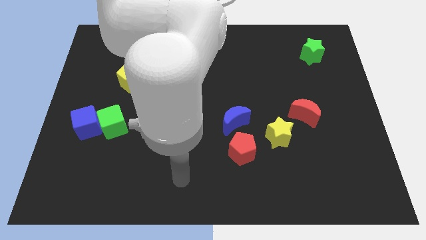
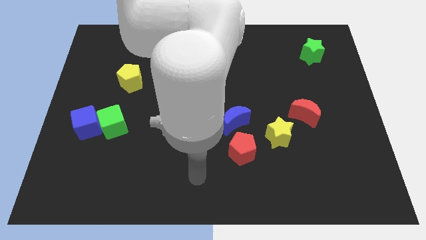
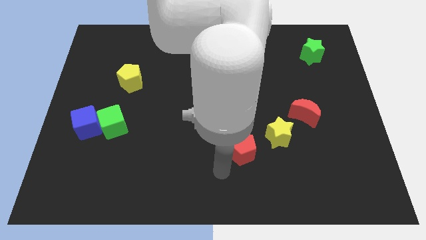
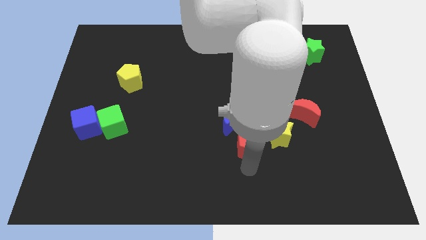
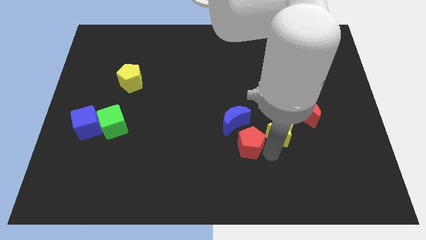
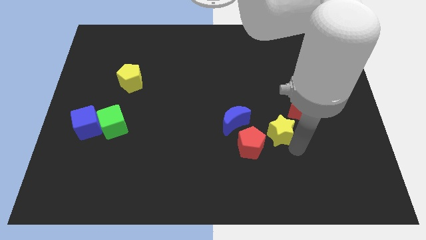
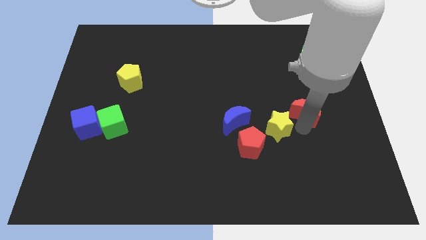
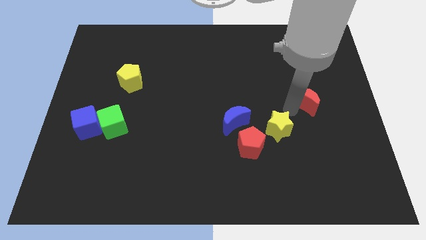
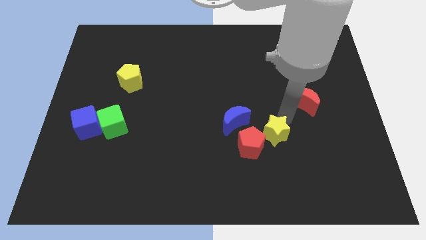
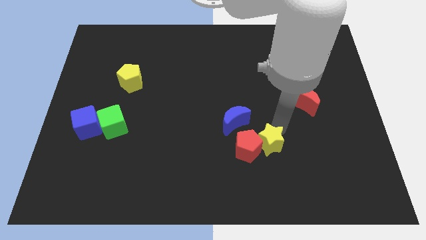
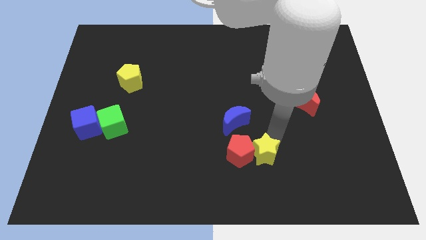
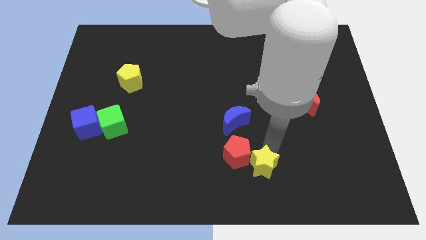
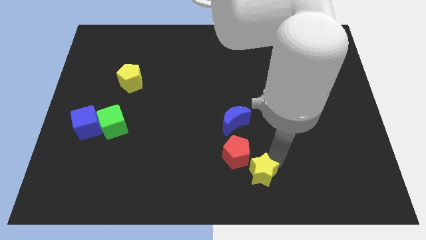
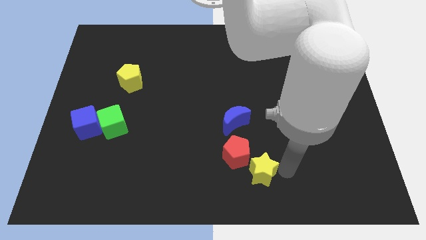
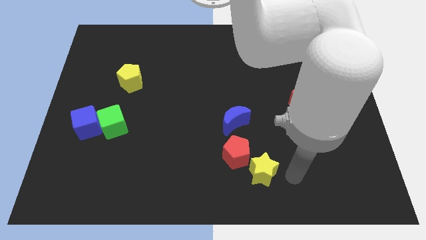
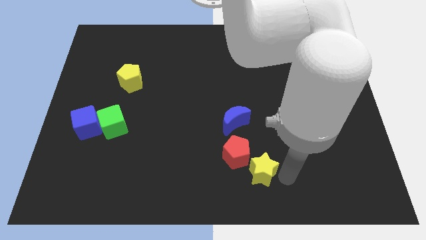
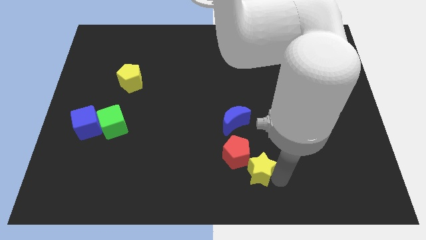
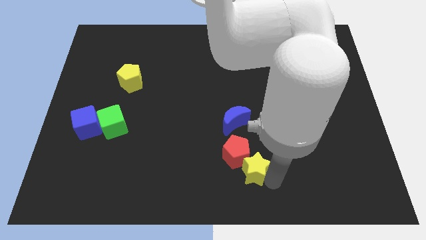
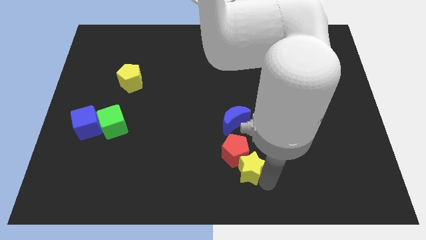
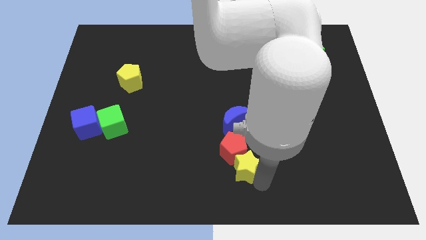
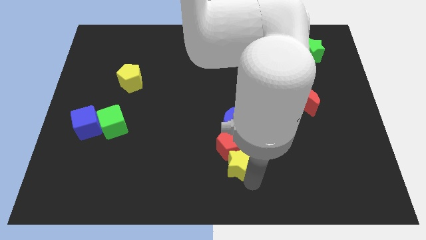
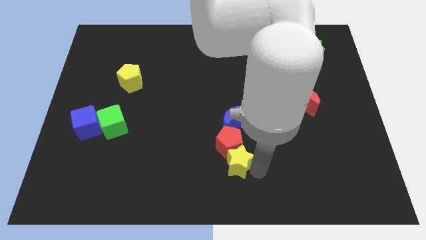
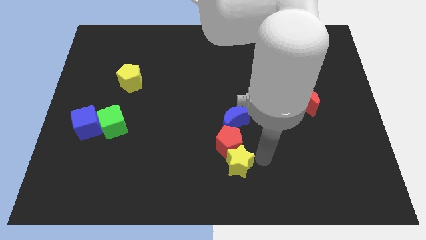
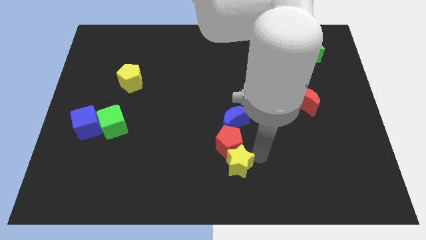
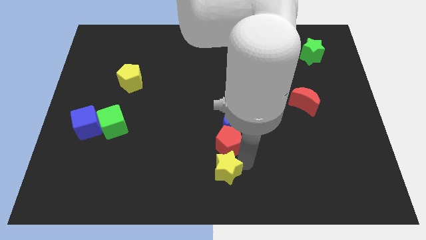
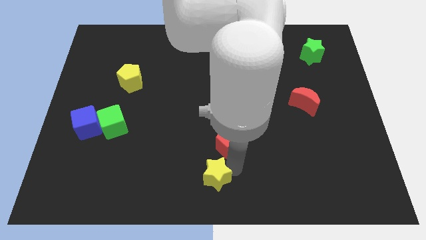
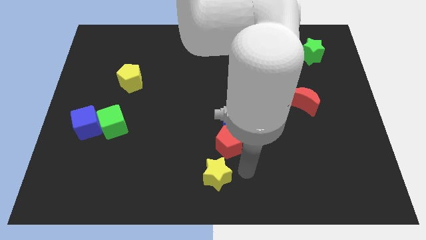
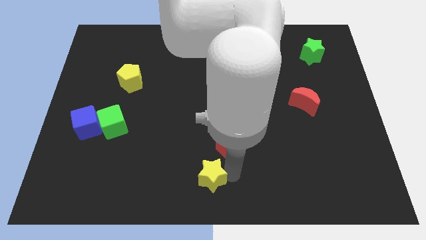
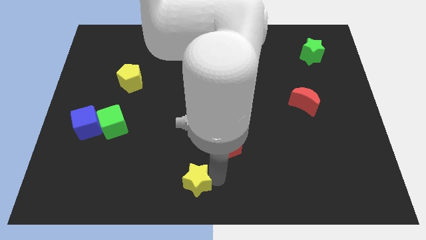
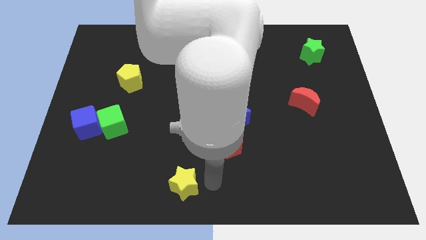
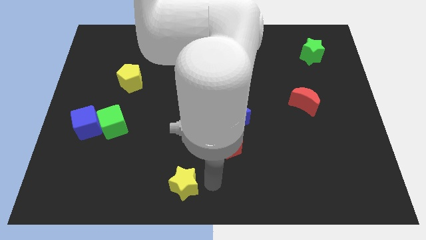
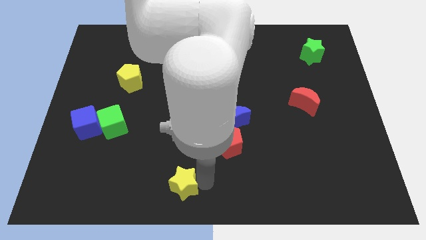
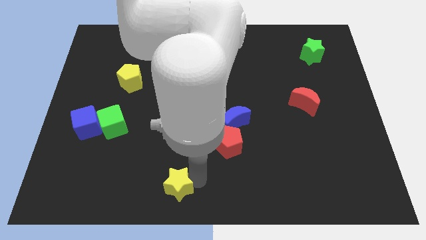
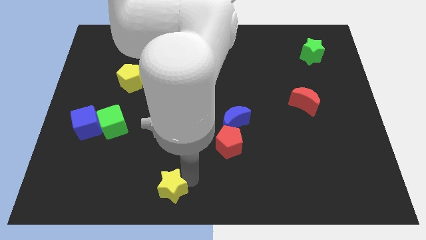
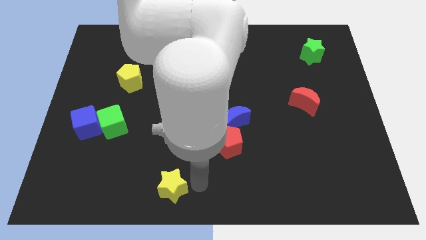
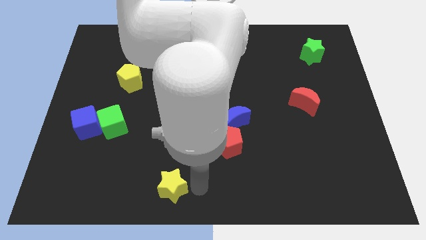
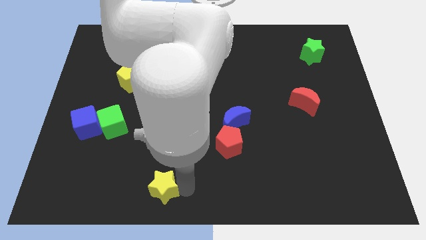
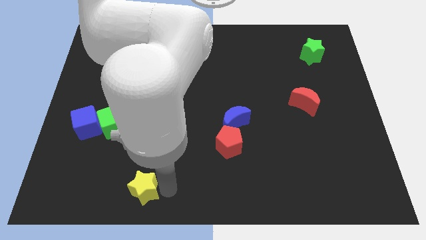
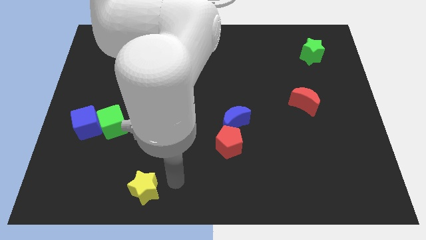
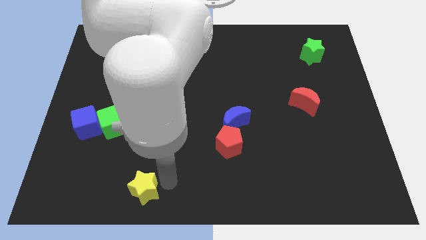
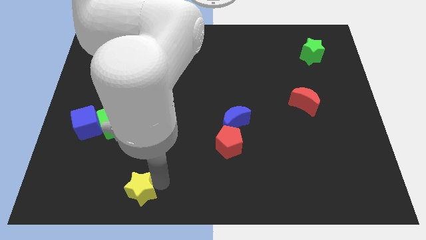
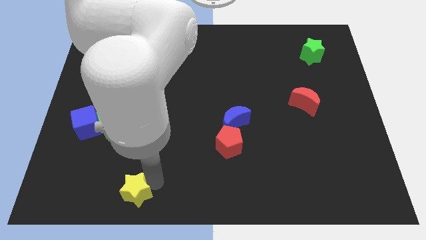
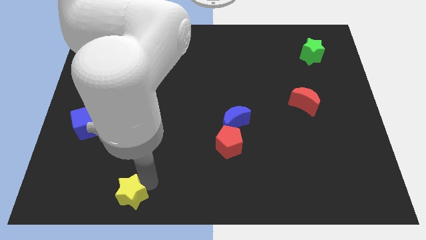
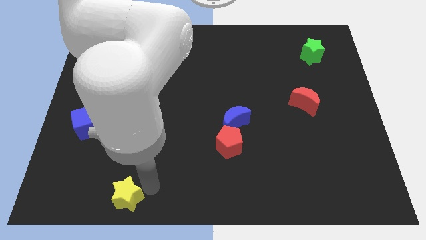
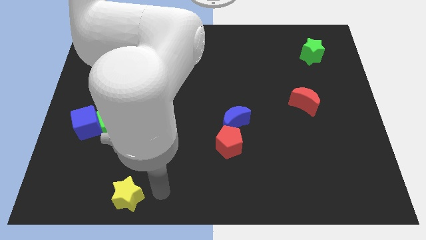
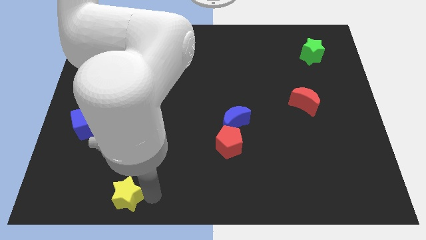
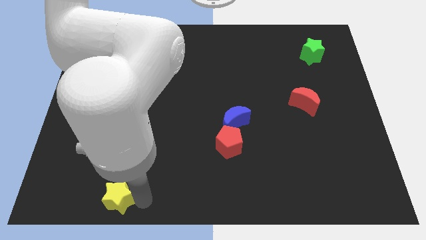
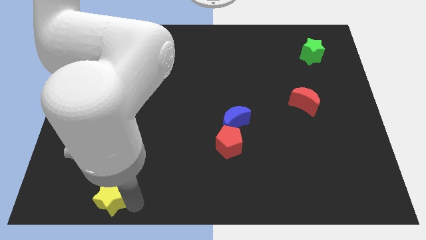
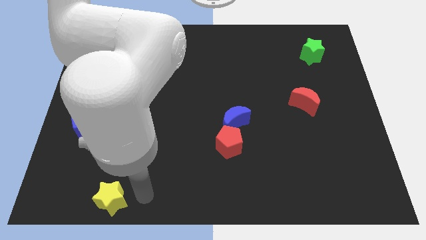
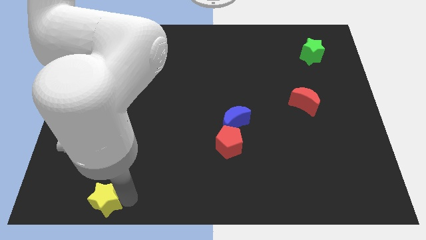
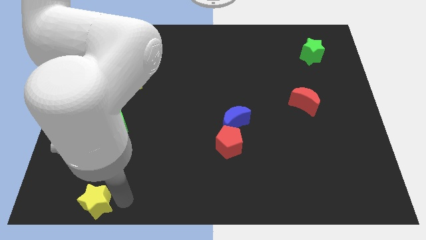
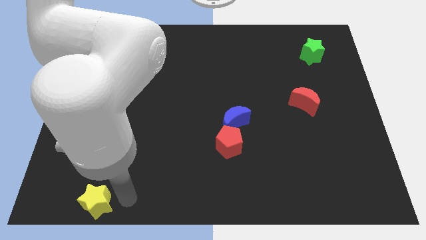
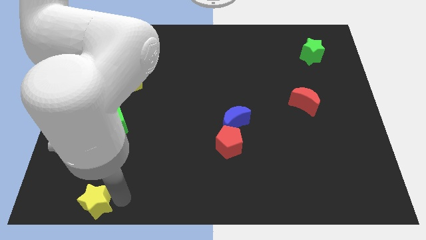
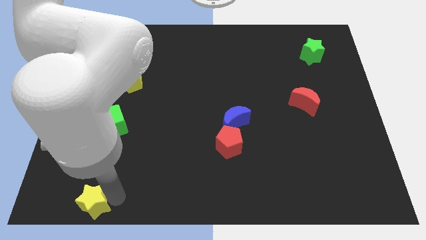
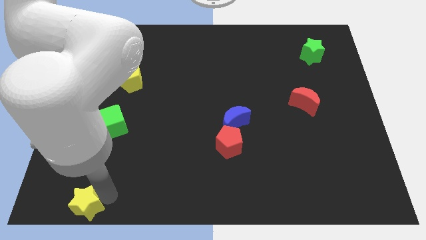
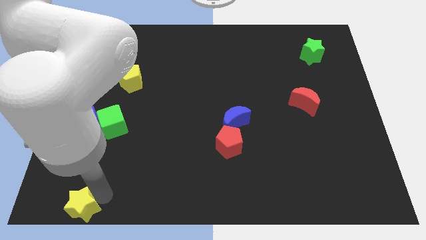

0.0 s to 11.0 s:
put the yellow star to the lower left corner

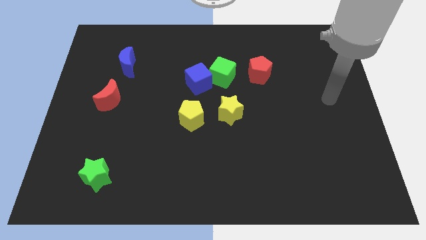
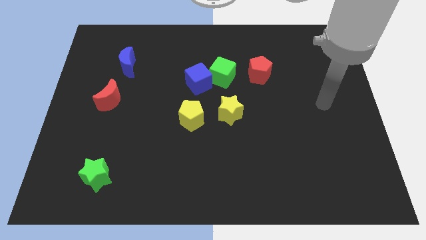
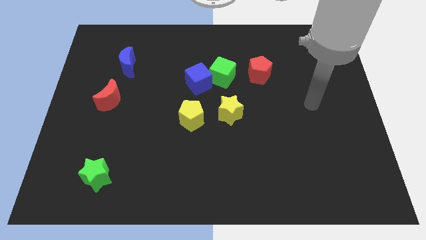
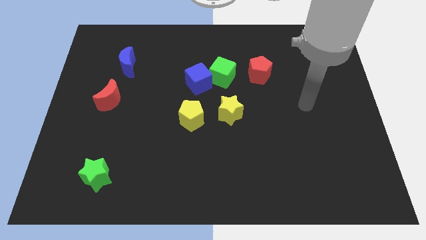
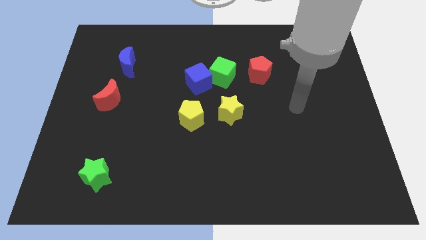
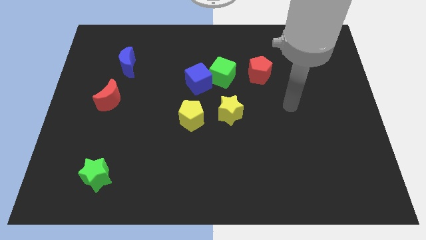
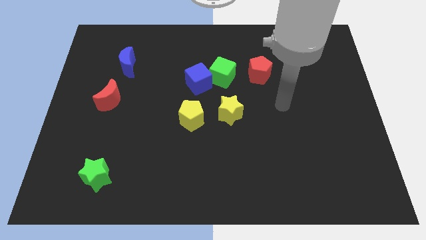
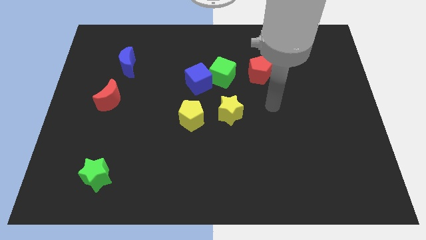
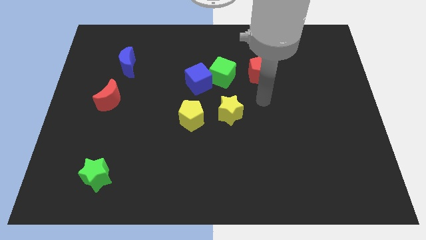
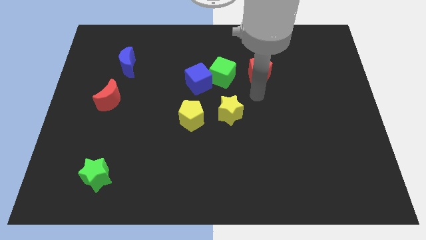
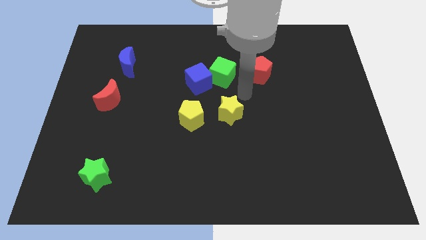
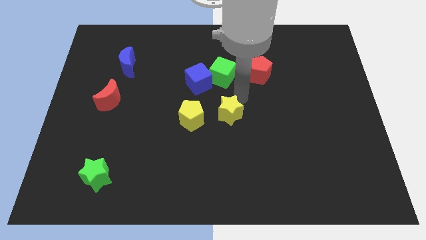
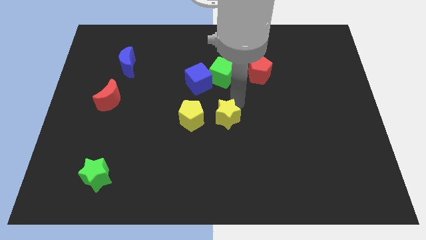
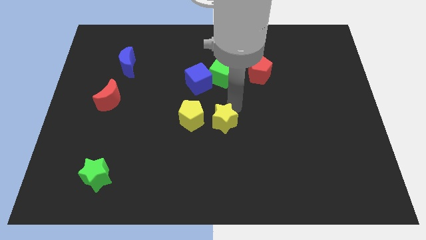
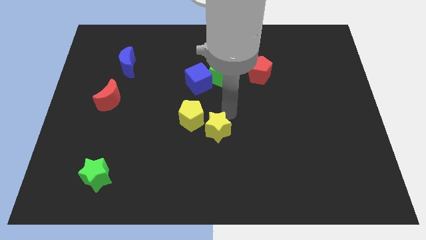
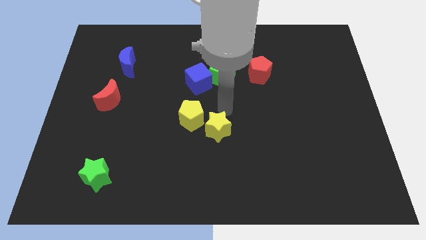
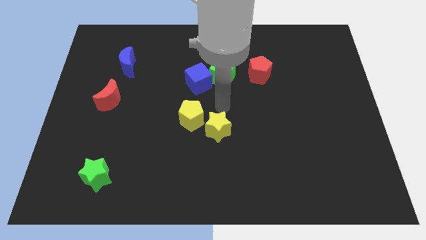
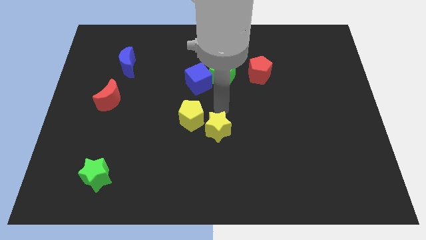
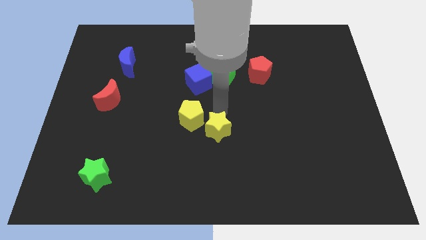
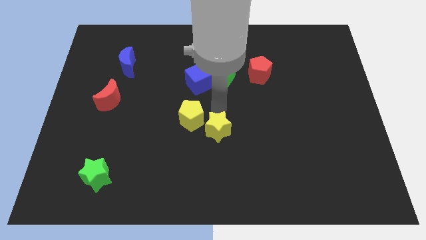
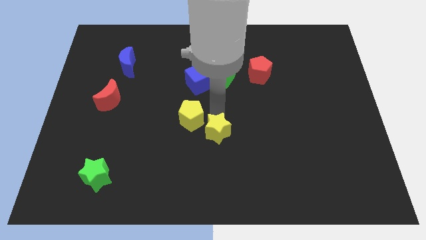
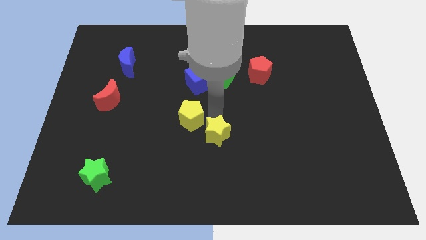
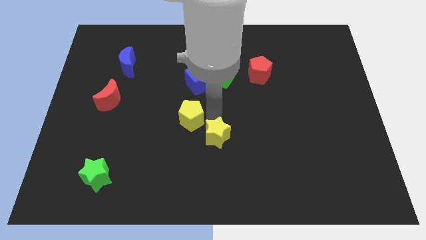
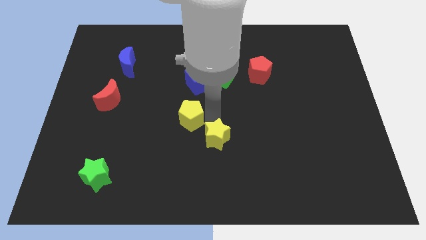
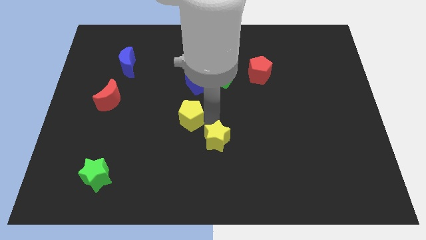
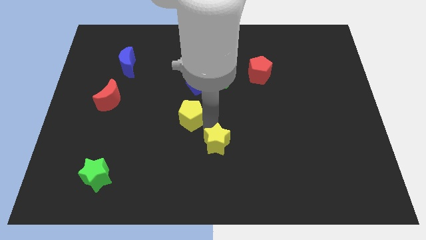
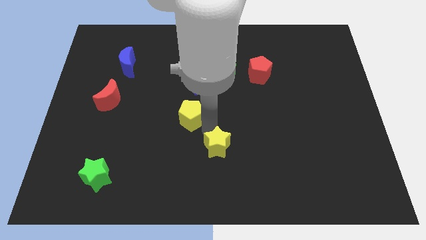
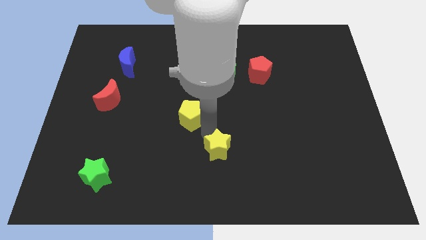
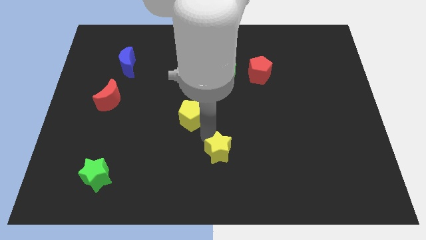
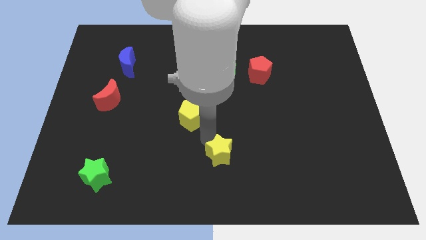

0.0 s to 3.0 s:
put the yellow star to the bottom side
